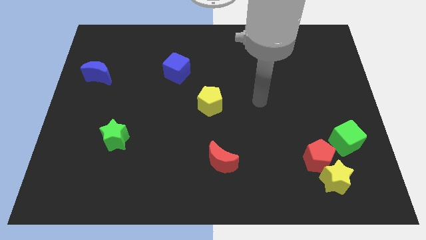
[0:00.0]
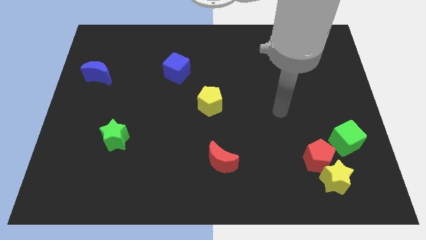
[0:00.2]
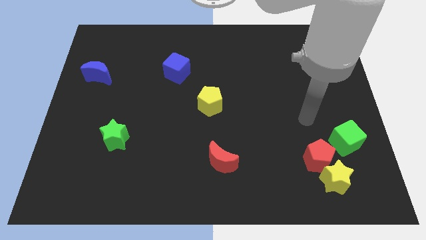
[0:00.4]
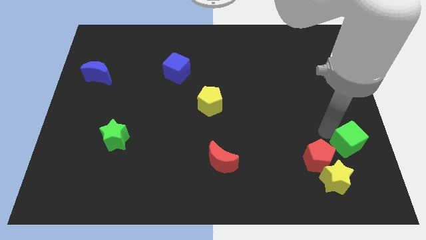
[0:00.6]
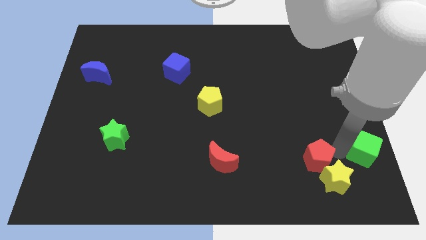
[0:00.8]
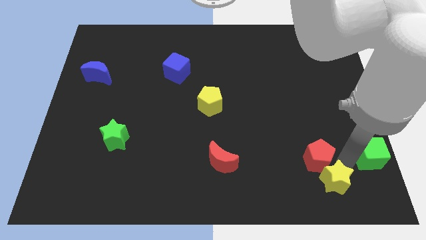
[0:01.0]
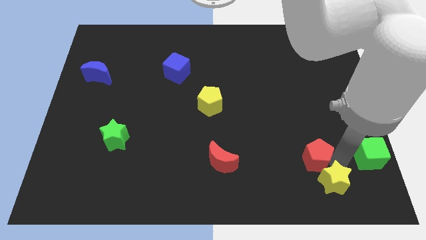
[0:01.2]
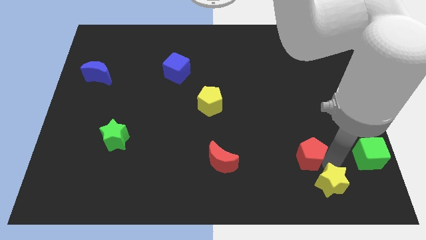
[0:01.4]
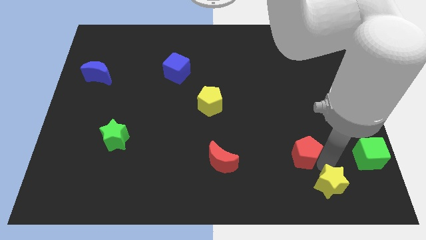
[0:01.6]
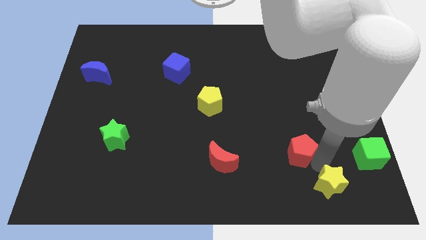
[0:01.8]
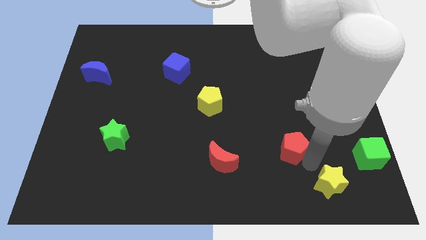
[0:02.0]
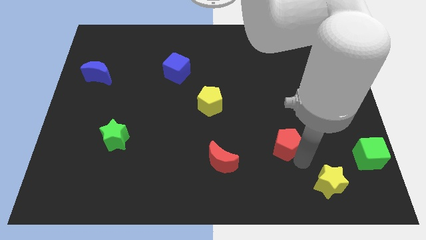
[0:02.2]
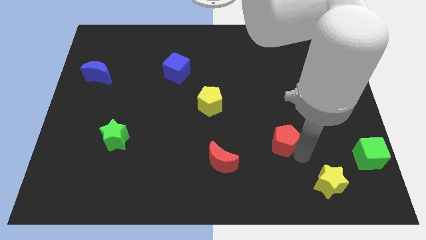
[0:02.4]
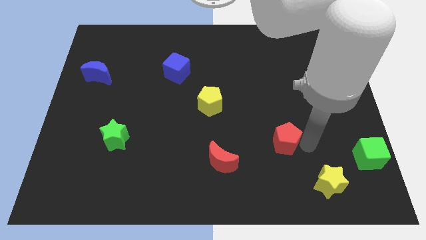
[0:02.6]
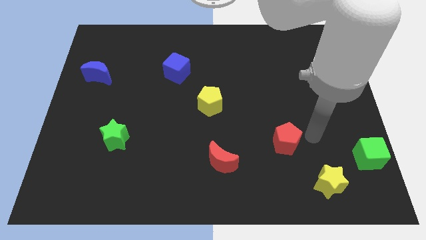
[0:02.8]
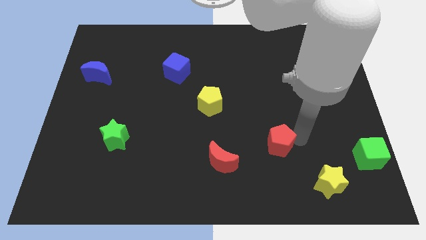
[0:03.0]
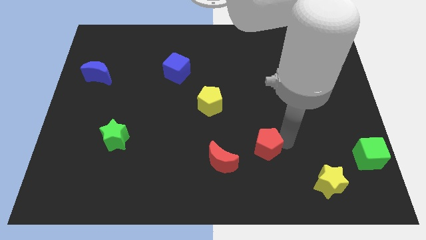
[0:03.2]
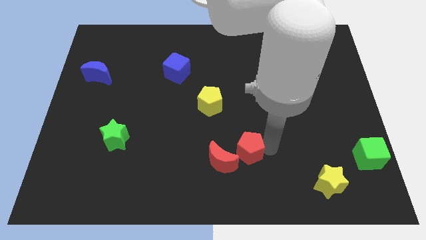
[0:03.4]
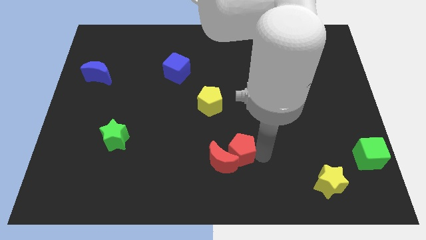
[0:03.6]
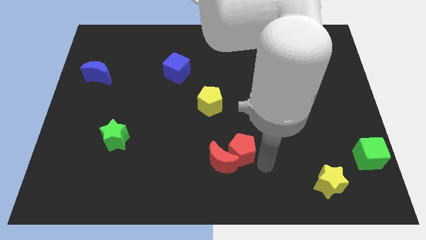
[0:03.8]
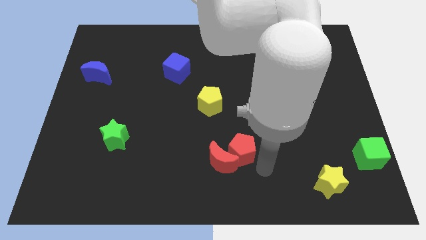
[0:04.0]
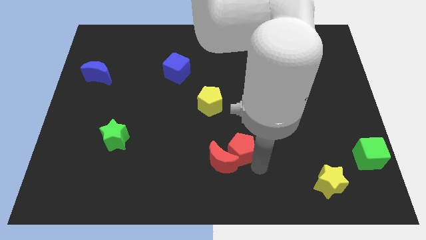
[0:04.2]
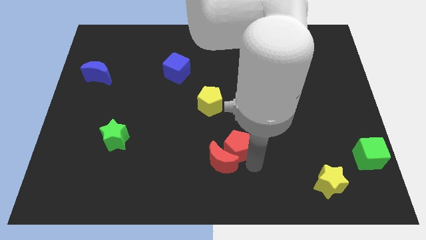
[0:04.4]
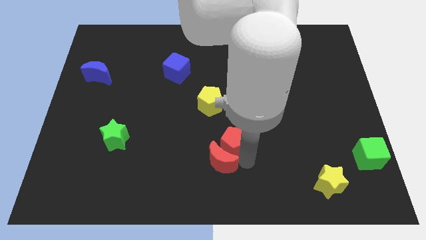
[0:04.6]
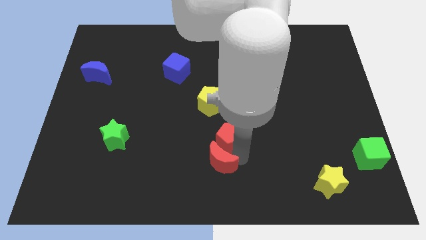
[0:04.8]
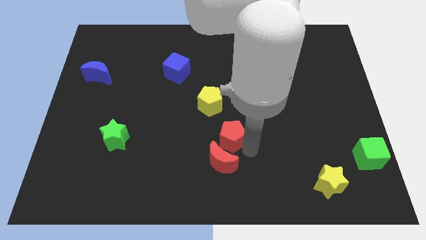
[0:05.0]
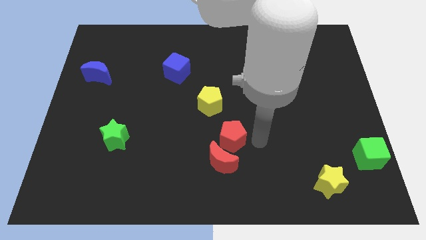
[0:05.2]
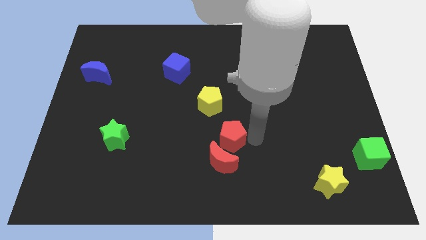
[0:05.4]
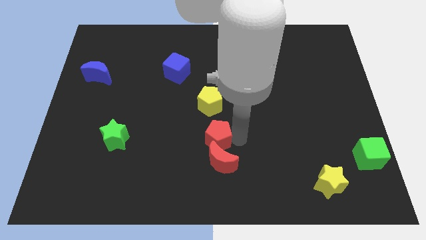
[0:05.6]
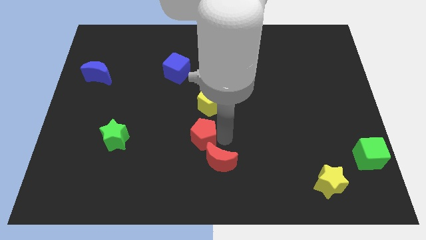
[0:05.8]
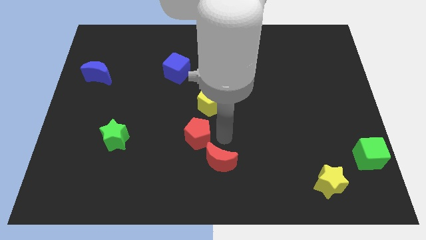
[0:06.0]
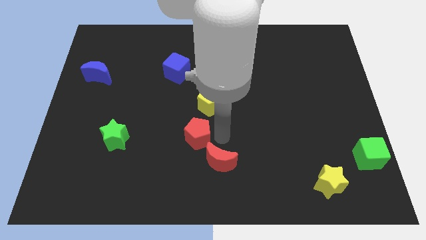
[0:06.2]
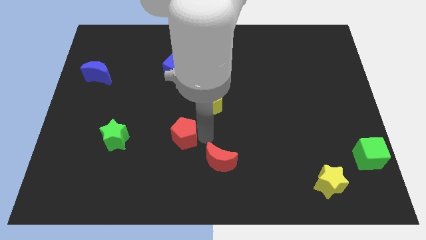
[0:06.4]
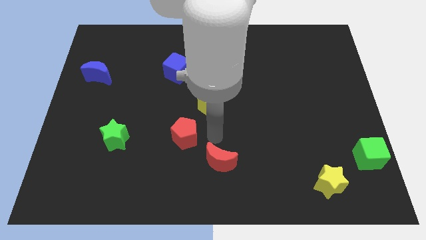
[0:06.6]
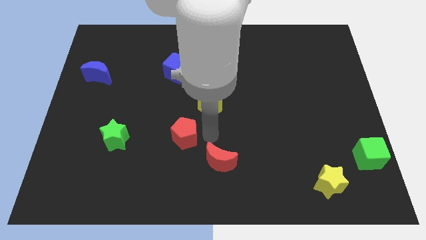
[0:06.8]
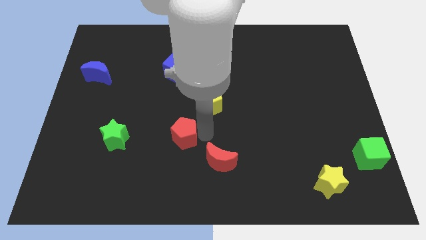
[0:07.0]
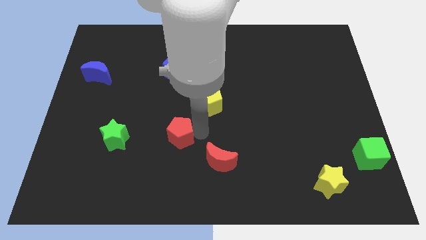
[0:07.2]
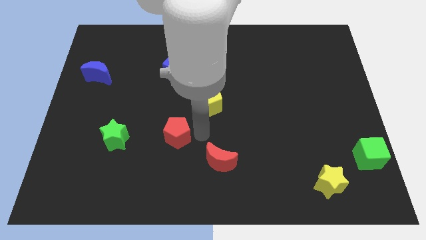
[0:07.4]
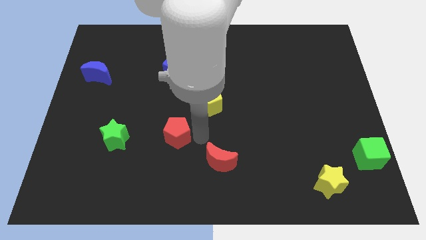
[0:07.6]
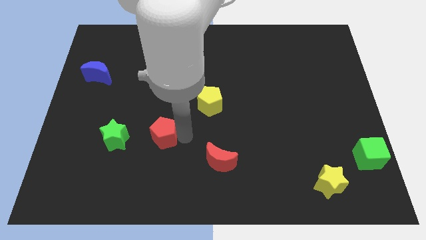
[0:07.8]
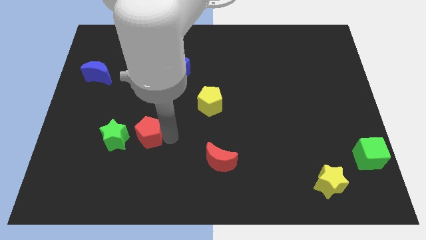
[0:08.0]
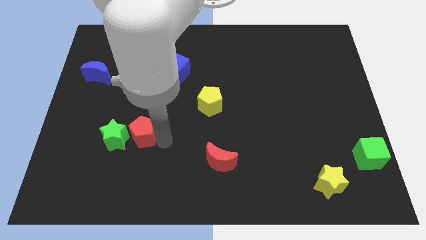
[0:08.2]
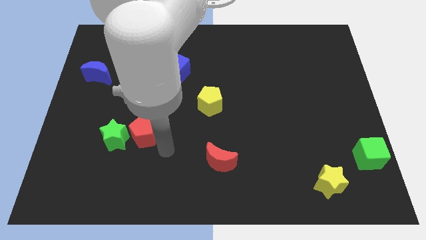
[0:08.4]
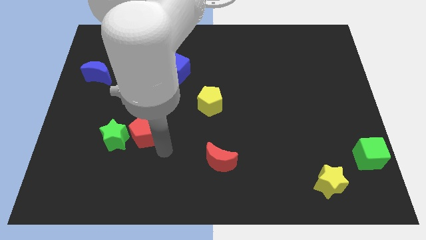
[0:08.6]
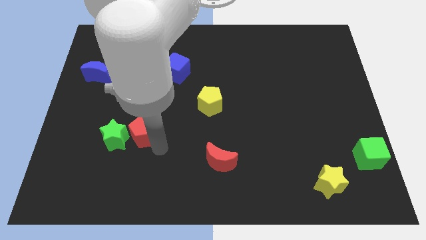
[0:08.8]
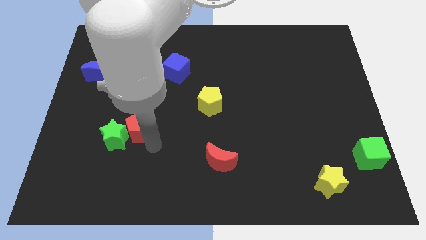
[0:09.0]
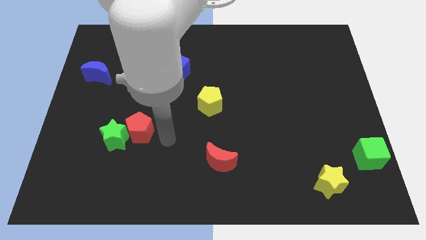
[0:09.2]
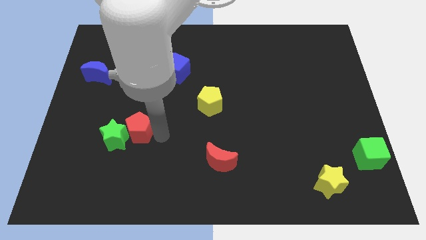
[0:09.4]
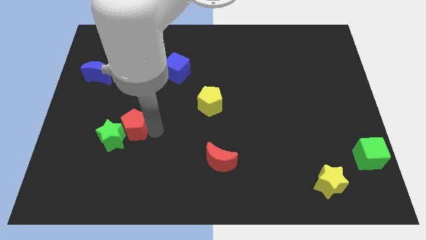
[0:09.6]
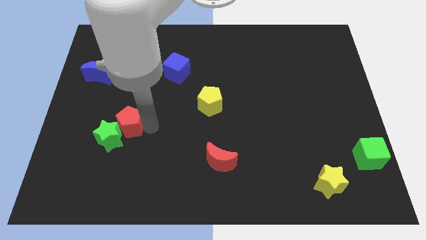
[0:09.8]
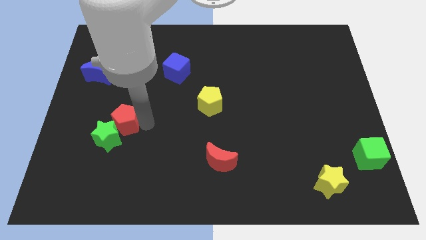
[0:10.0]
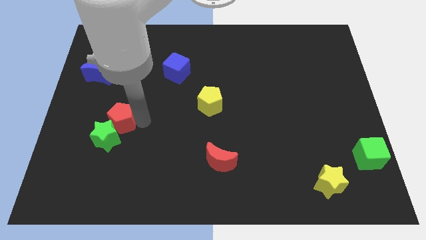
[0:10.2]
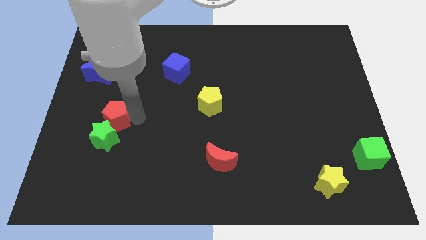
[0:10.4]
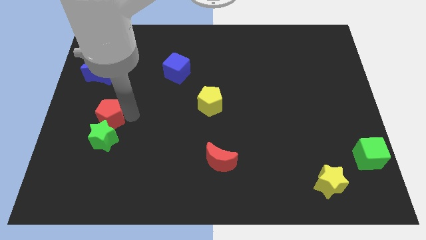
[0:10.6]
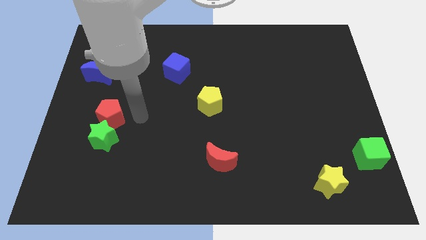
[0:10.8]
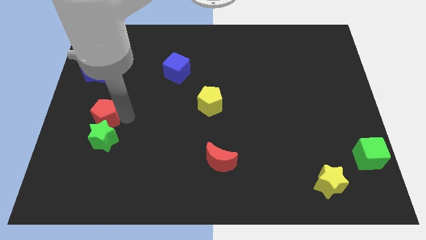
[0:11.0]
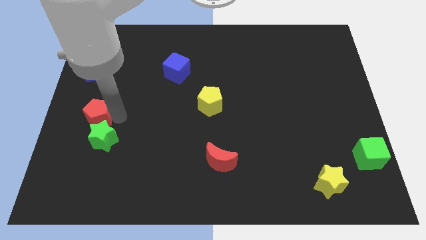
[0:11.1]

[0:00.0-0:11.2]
put the red pentagon to the left side of the board

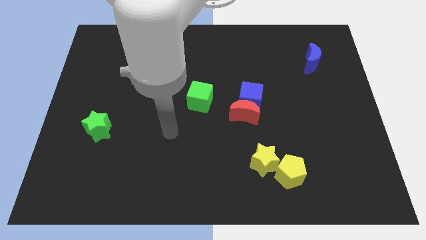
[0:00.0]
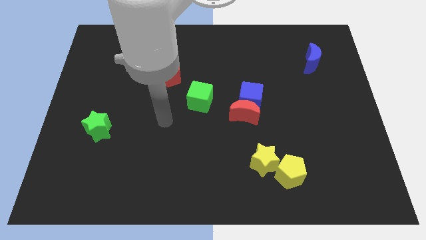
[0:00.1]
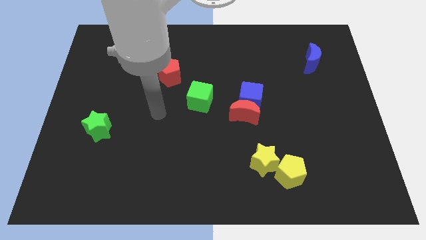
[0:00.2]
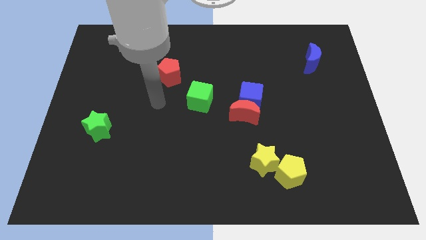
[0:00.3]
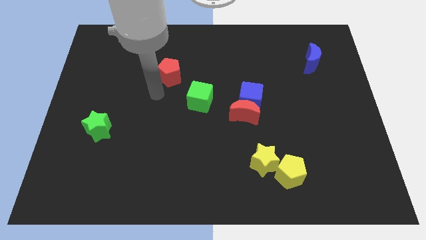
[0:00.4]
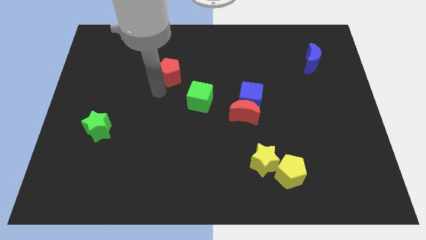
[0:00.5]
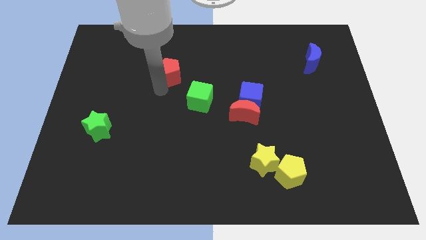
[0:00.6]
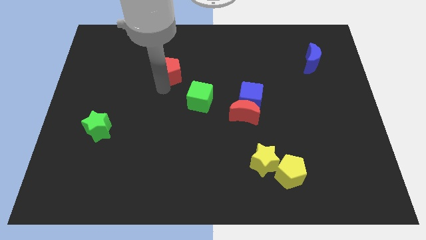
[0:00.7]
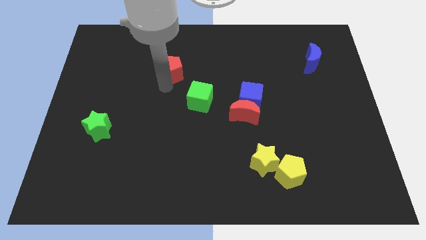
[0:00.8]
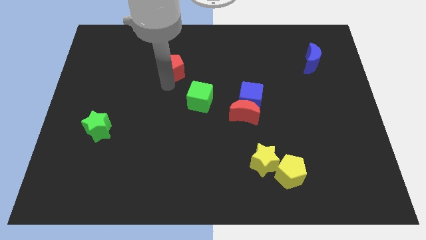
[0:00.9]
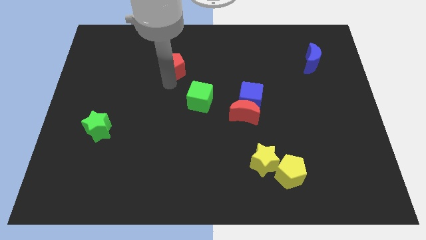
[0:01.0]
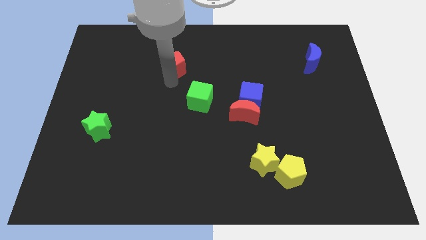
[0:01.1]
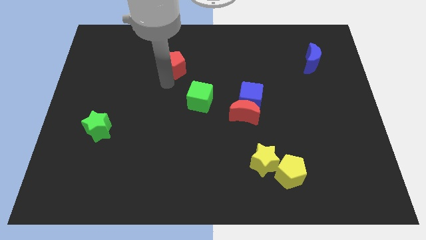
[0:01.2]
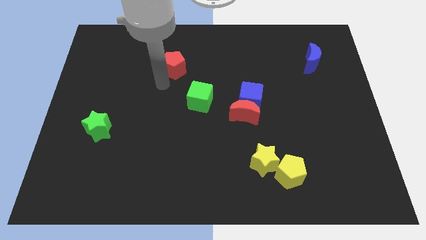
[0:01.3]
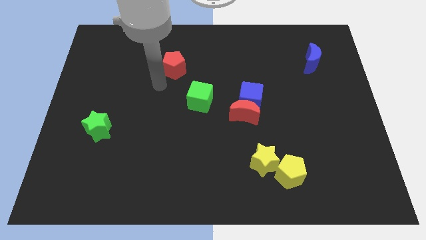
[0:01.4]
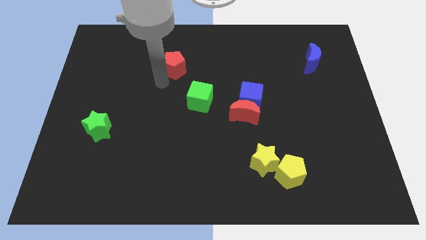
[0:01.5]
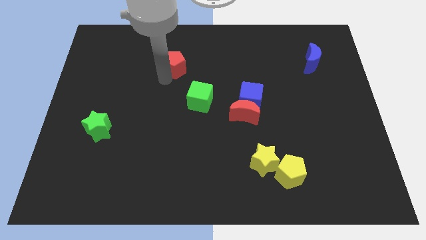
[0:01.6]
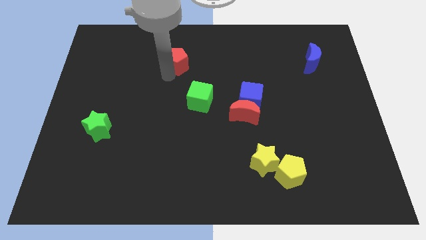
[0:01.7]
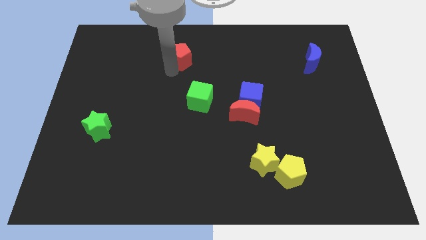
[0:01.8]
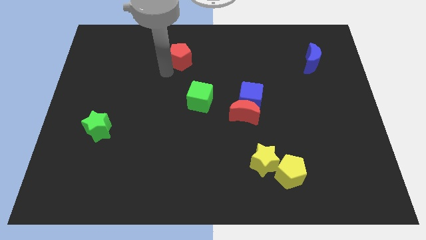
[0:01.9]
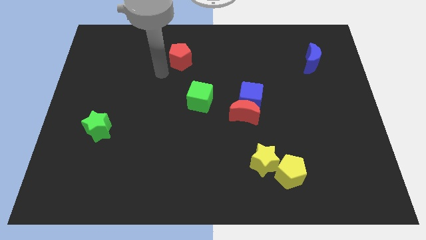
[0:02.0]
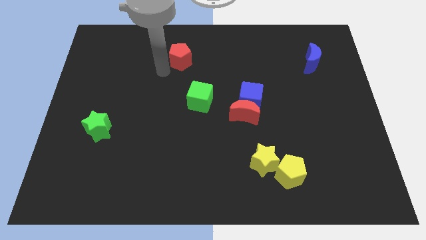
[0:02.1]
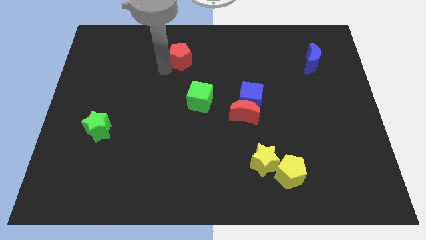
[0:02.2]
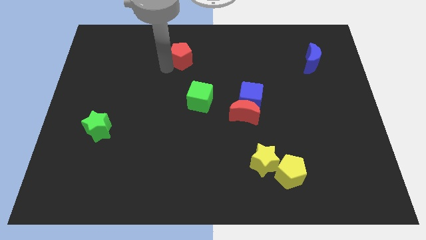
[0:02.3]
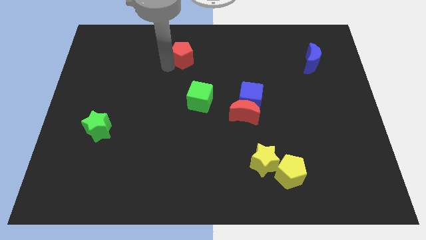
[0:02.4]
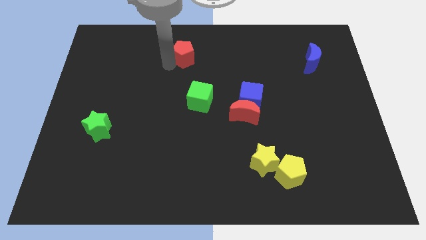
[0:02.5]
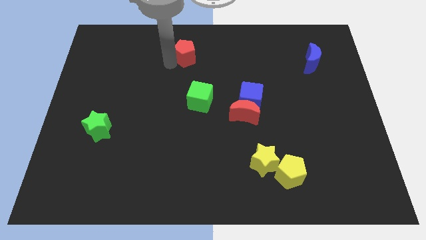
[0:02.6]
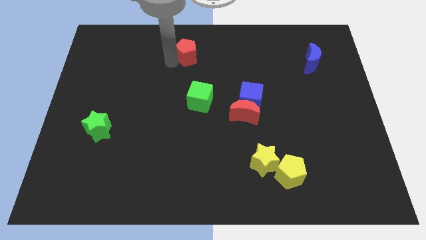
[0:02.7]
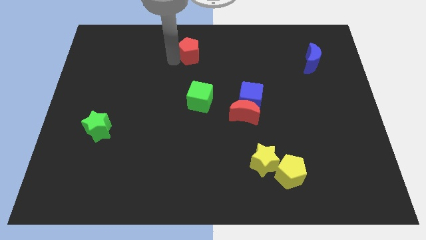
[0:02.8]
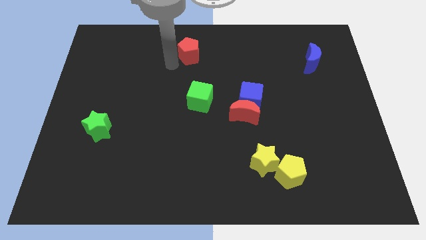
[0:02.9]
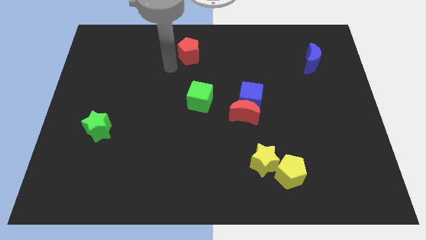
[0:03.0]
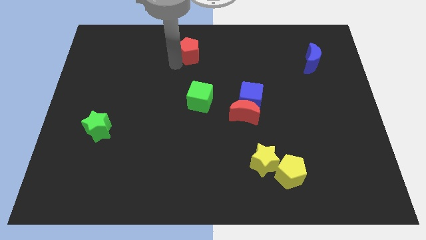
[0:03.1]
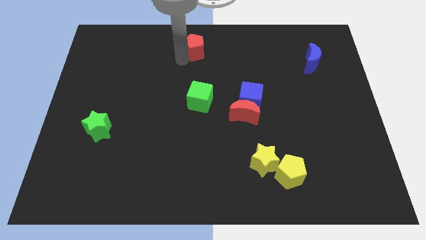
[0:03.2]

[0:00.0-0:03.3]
move the red pentagon to the top side
